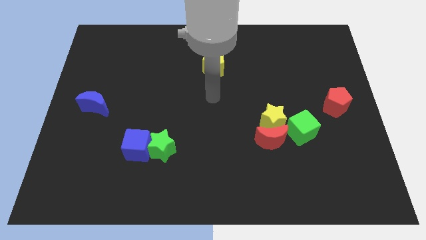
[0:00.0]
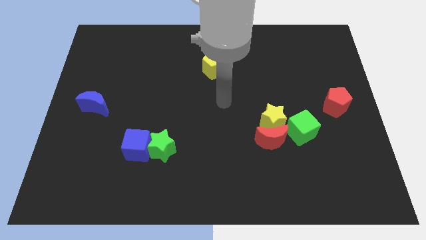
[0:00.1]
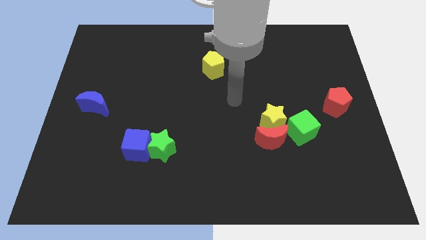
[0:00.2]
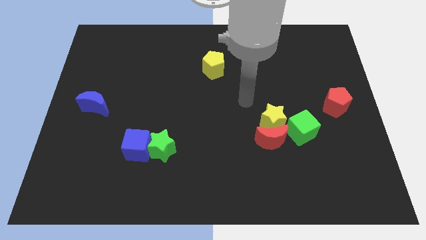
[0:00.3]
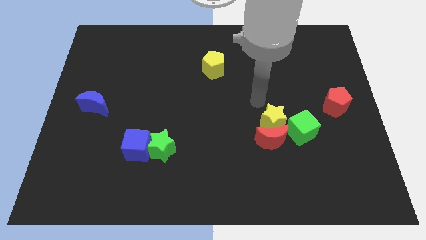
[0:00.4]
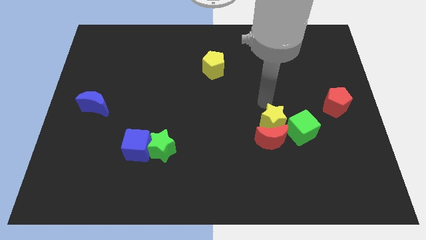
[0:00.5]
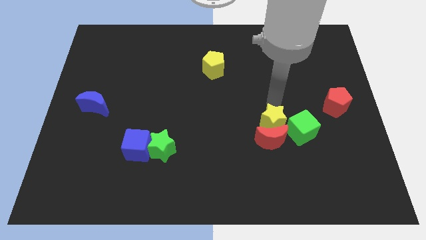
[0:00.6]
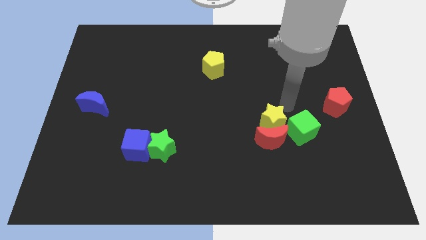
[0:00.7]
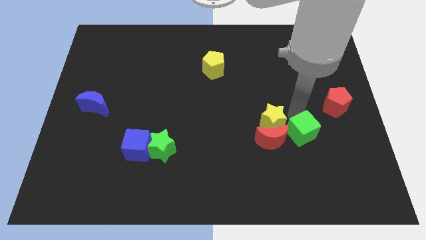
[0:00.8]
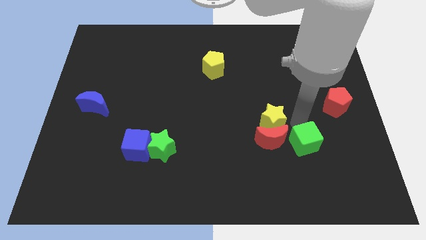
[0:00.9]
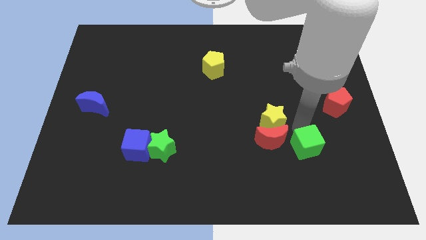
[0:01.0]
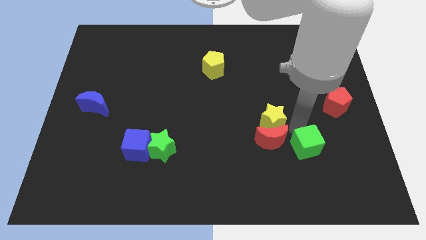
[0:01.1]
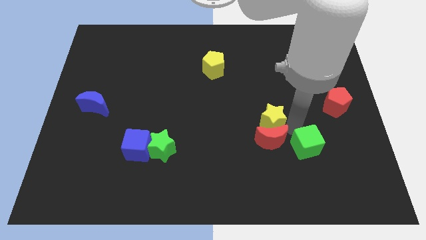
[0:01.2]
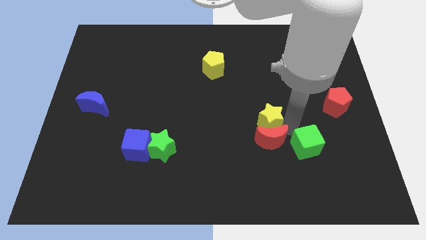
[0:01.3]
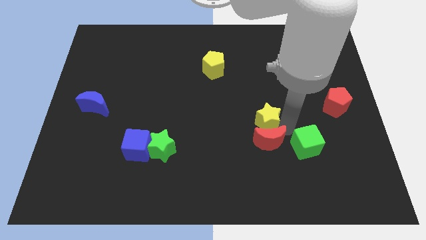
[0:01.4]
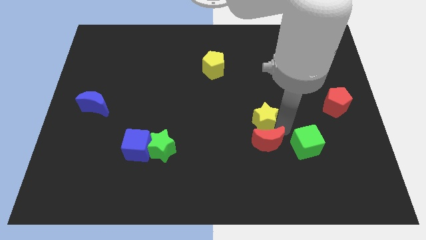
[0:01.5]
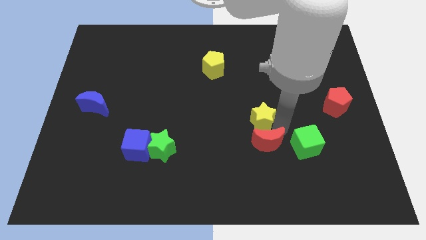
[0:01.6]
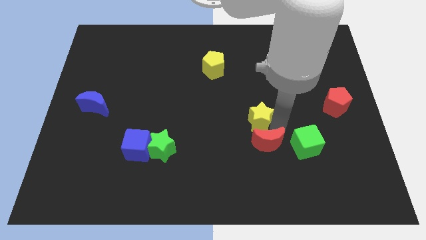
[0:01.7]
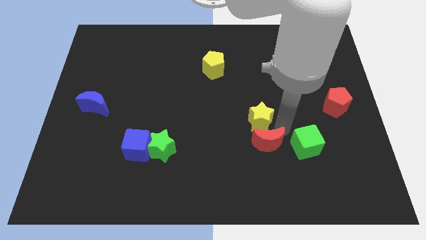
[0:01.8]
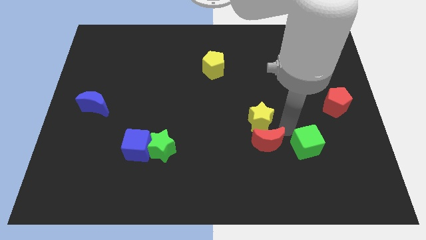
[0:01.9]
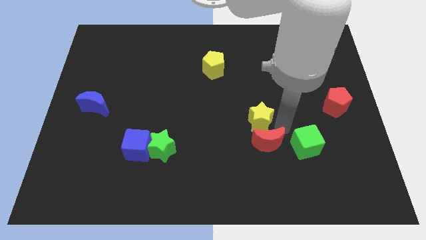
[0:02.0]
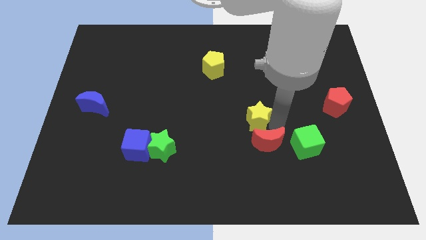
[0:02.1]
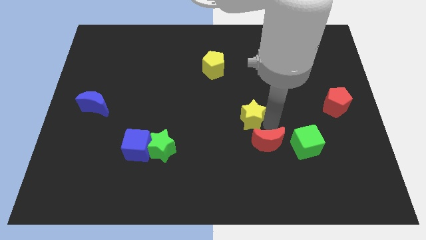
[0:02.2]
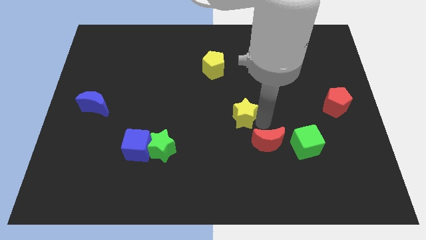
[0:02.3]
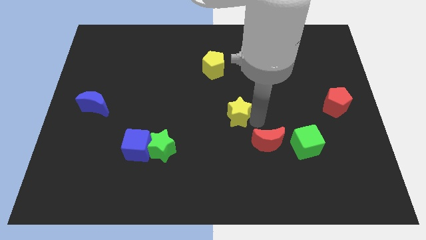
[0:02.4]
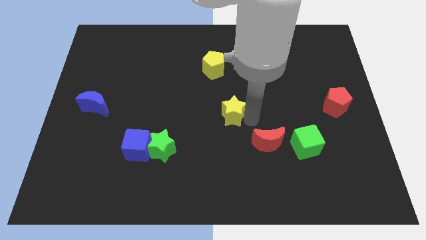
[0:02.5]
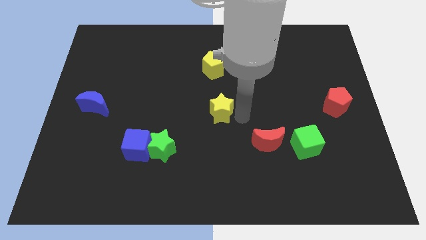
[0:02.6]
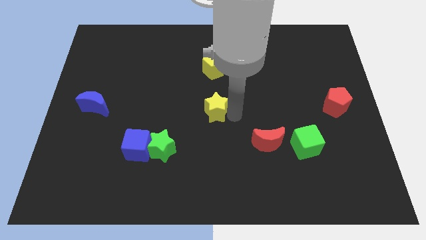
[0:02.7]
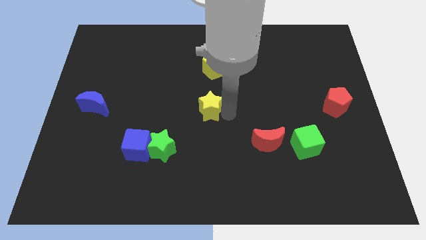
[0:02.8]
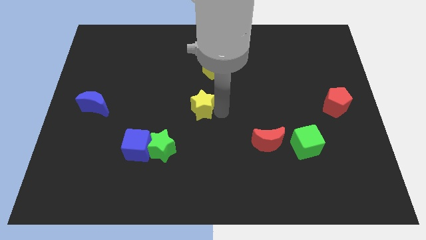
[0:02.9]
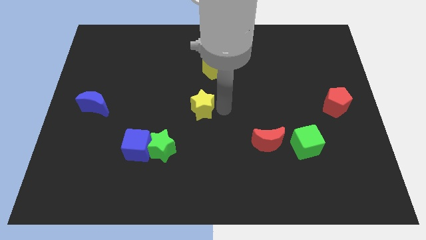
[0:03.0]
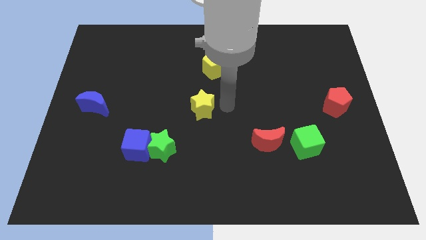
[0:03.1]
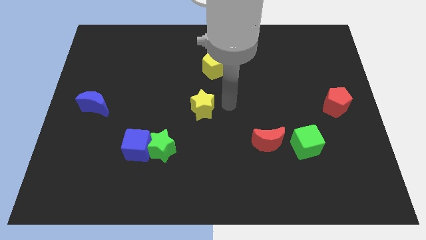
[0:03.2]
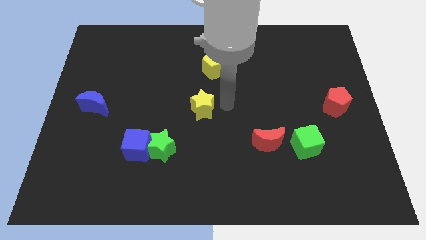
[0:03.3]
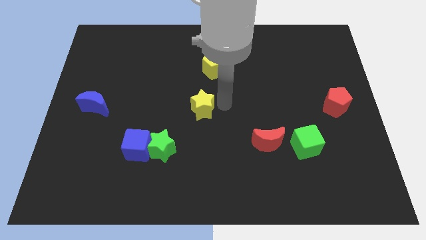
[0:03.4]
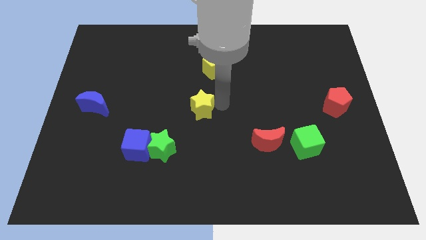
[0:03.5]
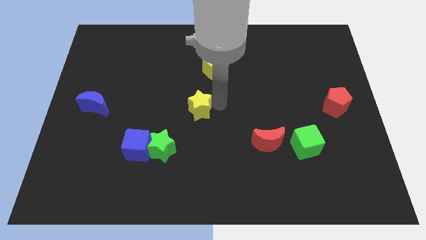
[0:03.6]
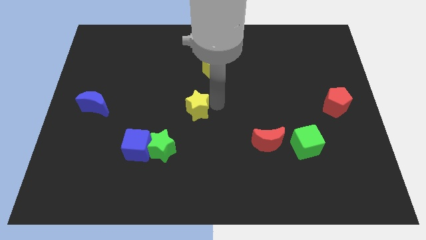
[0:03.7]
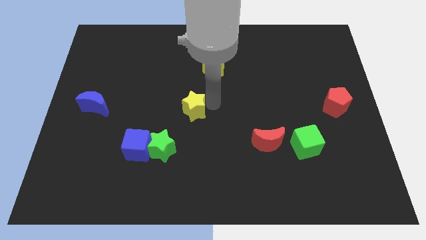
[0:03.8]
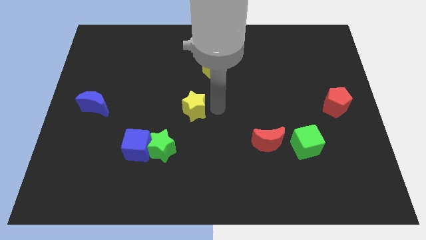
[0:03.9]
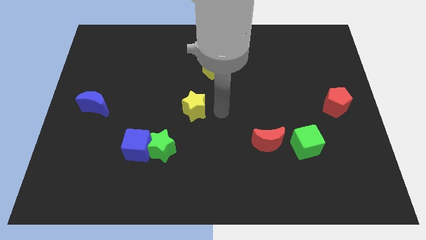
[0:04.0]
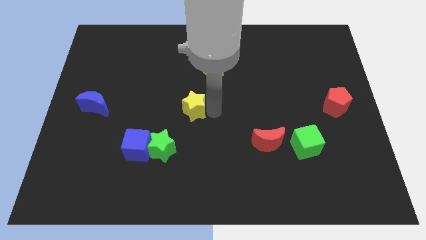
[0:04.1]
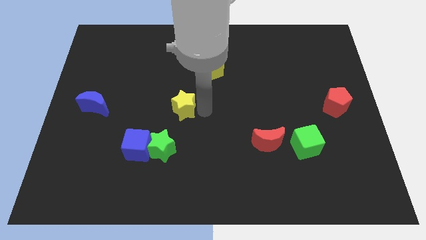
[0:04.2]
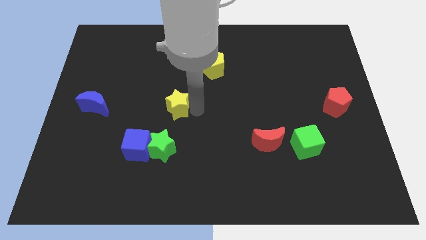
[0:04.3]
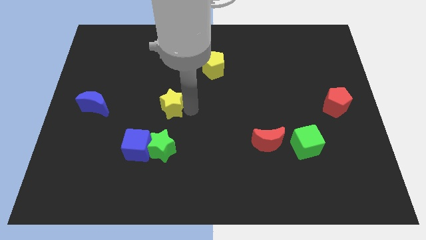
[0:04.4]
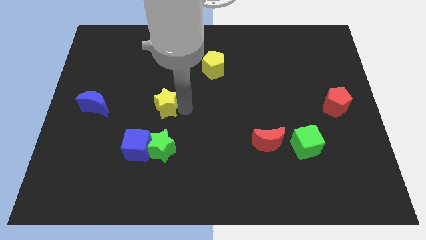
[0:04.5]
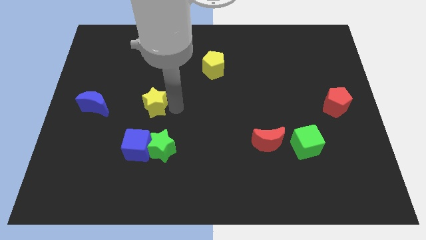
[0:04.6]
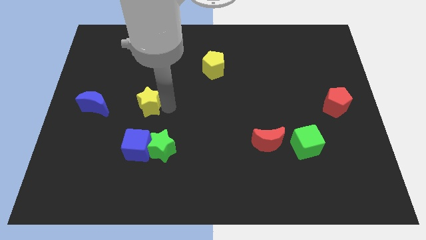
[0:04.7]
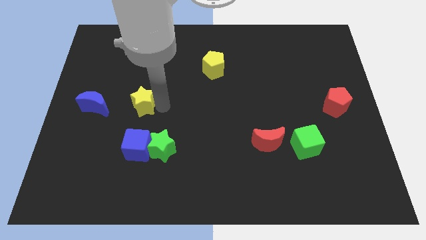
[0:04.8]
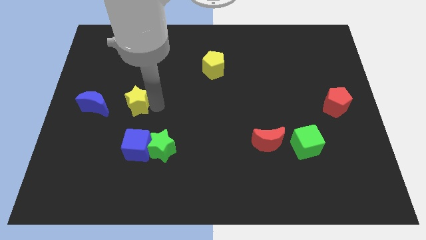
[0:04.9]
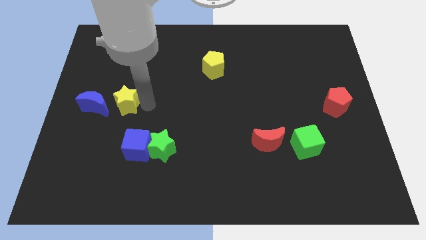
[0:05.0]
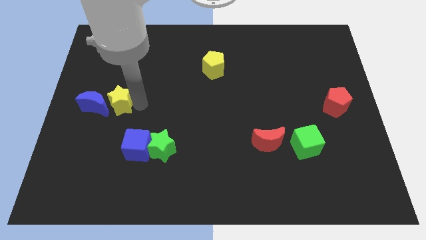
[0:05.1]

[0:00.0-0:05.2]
put the yellow star to the blue moon

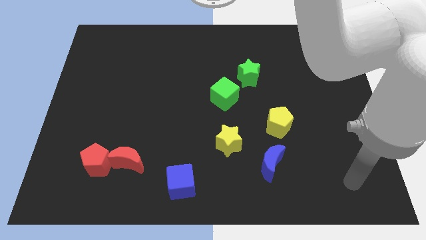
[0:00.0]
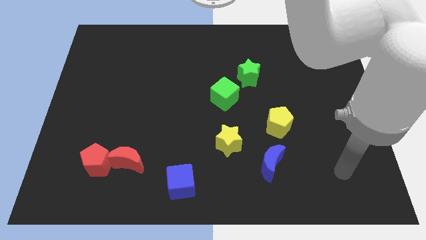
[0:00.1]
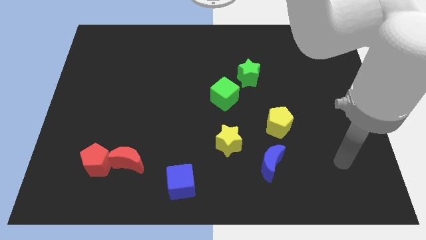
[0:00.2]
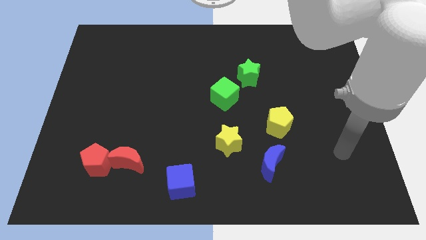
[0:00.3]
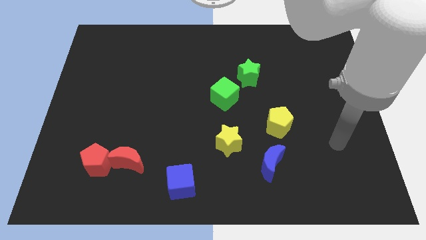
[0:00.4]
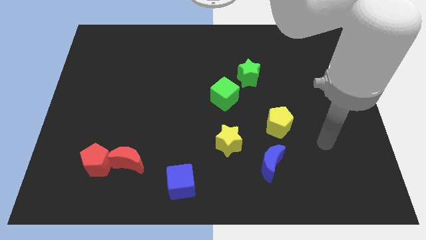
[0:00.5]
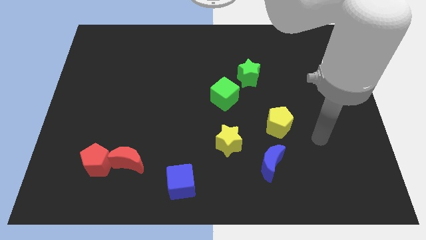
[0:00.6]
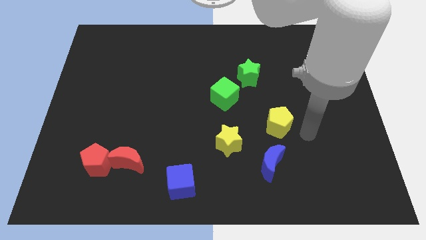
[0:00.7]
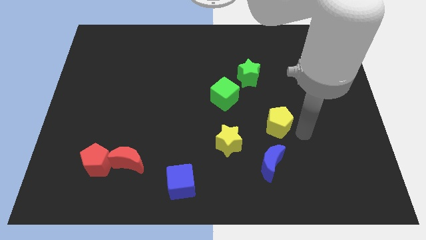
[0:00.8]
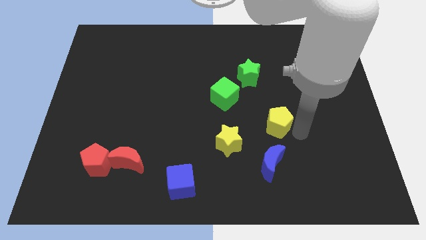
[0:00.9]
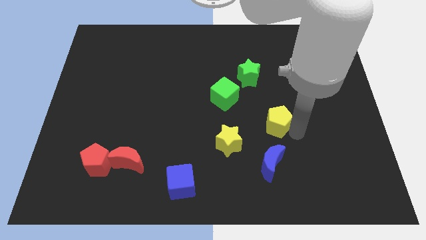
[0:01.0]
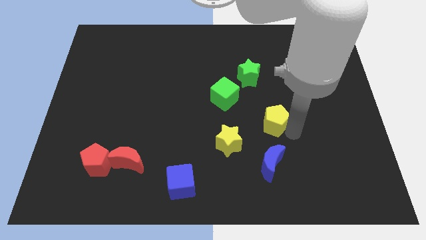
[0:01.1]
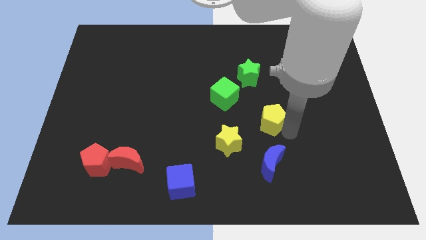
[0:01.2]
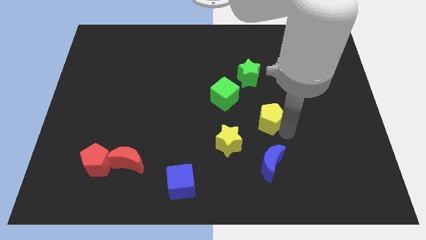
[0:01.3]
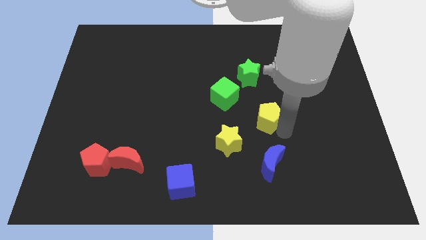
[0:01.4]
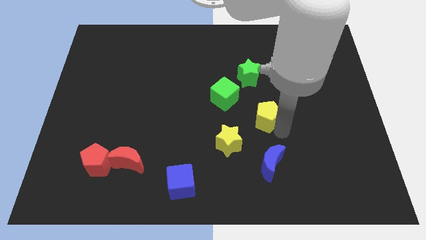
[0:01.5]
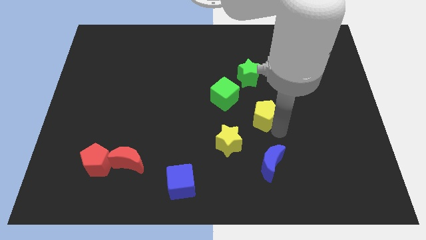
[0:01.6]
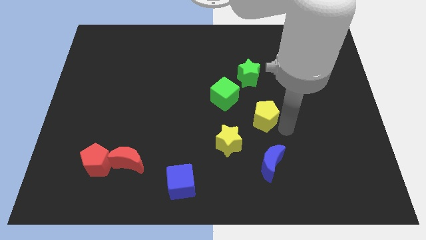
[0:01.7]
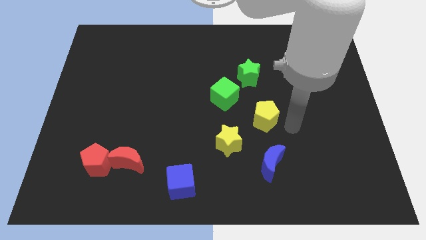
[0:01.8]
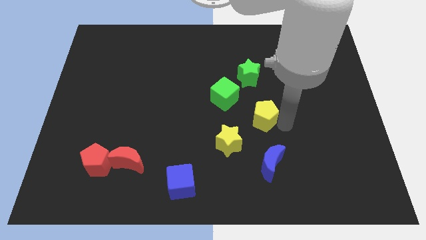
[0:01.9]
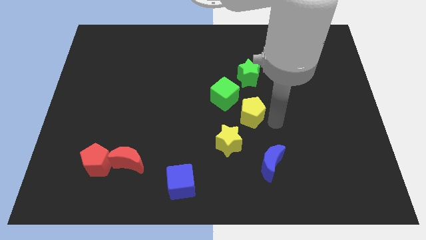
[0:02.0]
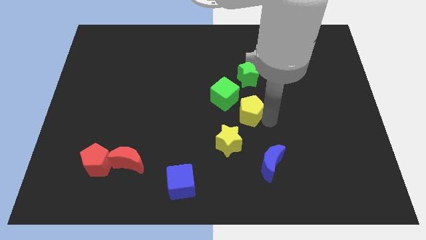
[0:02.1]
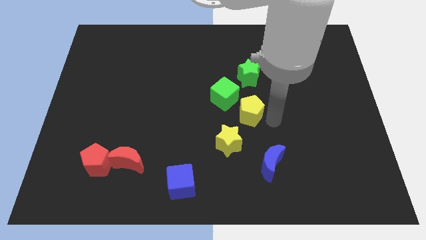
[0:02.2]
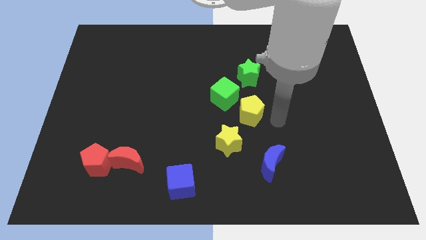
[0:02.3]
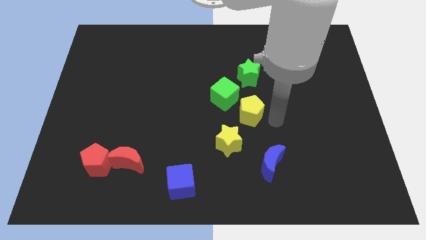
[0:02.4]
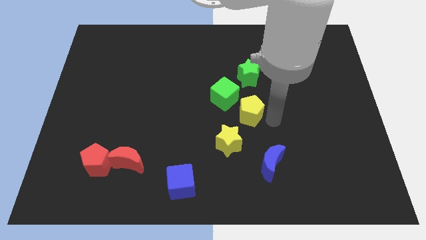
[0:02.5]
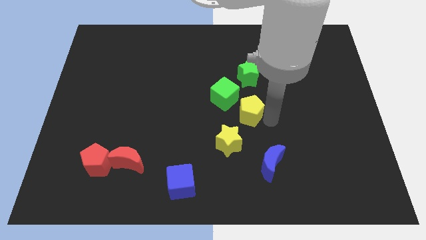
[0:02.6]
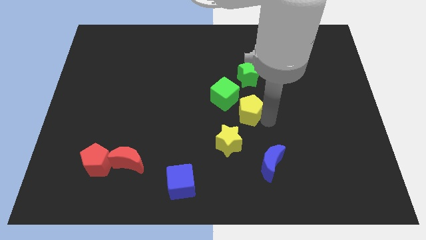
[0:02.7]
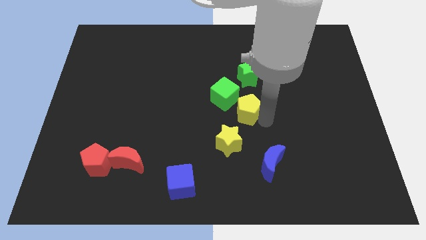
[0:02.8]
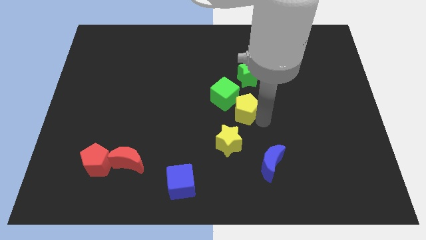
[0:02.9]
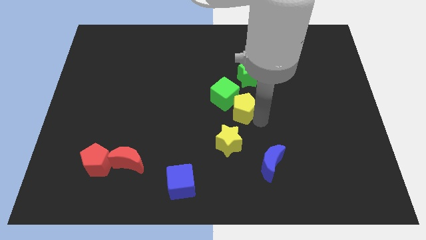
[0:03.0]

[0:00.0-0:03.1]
put the yellow pentagon next to the green cube
